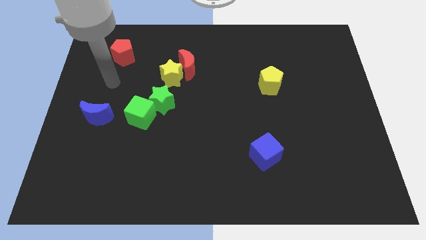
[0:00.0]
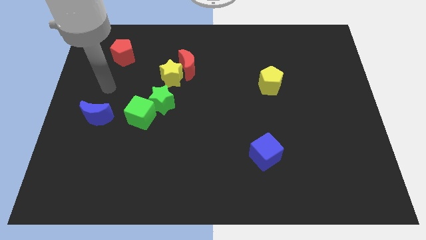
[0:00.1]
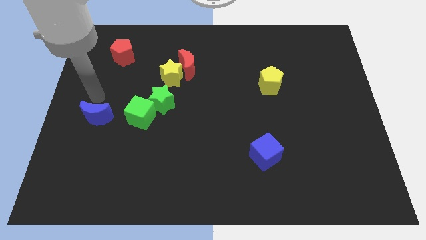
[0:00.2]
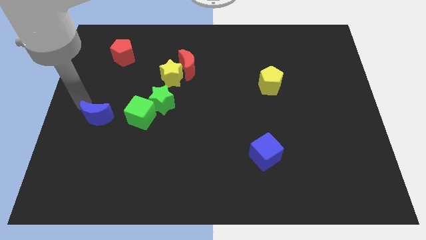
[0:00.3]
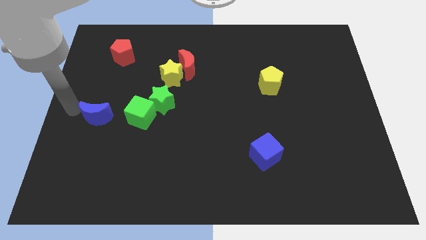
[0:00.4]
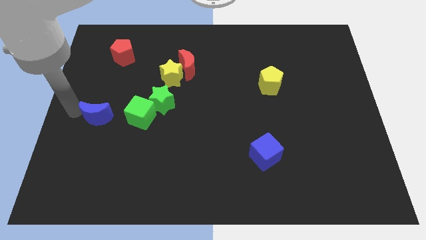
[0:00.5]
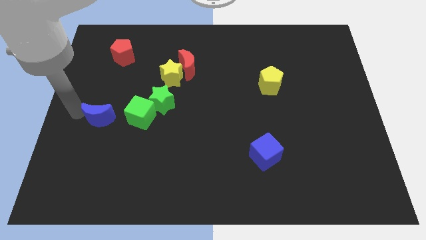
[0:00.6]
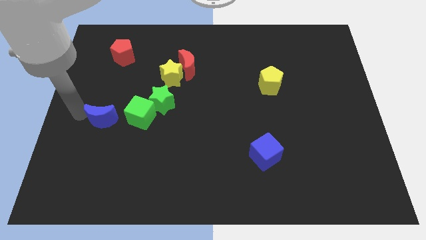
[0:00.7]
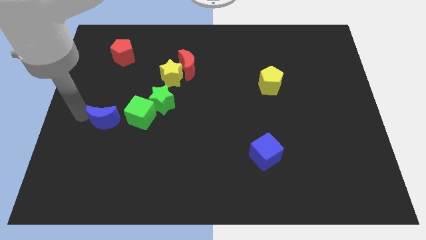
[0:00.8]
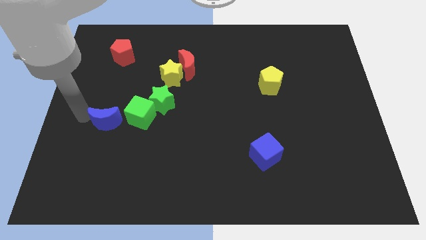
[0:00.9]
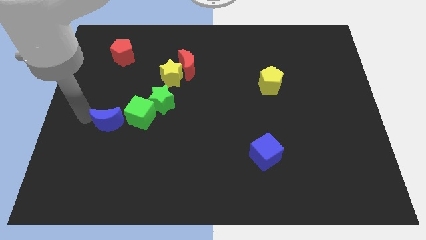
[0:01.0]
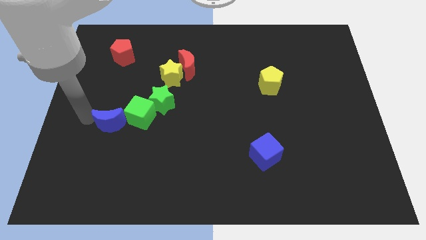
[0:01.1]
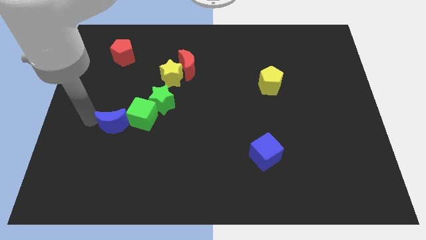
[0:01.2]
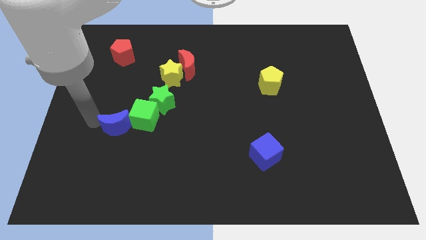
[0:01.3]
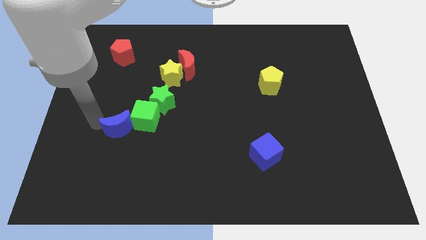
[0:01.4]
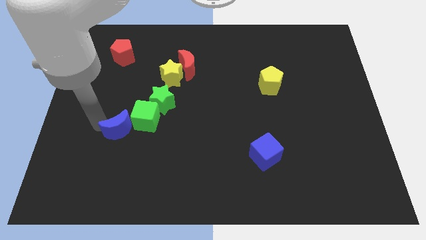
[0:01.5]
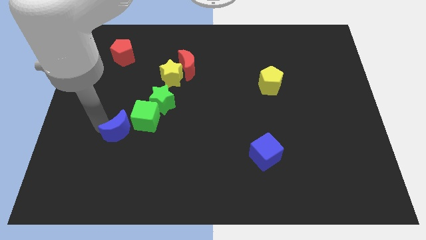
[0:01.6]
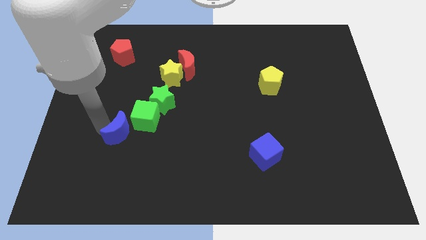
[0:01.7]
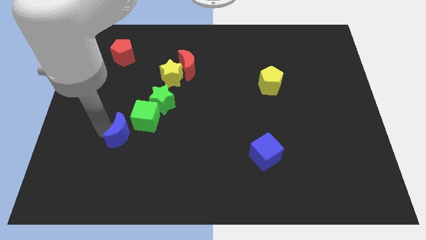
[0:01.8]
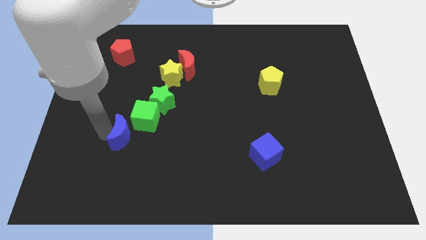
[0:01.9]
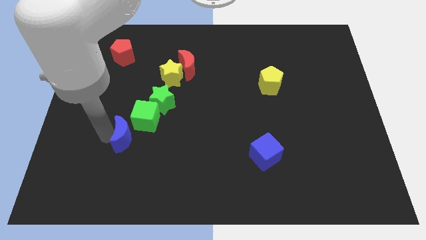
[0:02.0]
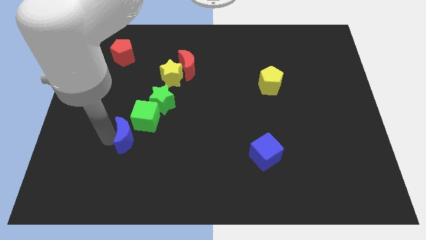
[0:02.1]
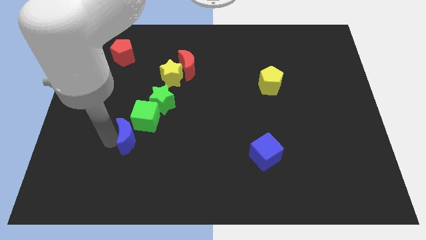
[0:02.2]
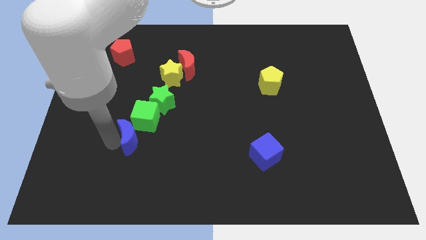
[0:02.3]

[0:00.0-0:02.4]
slide the blue moon a little bit to the right

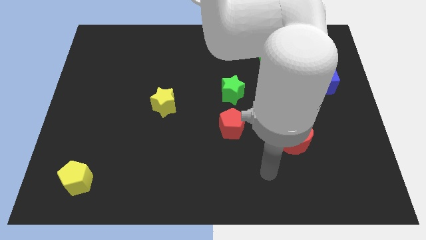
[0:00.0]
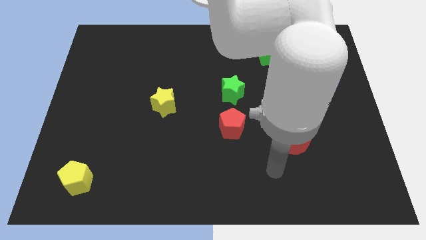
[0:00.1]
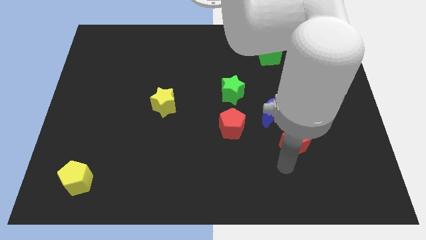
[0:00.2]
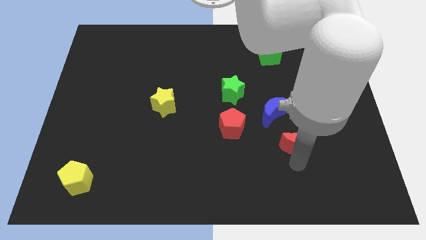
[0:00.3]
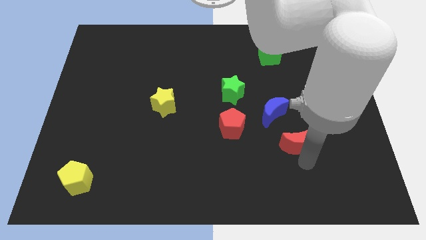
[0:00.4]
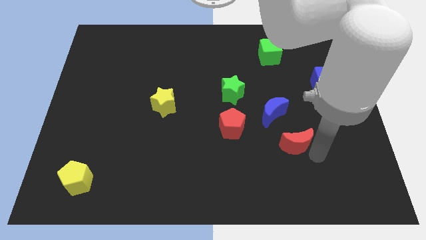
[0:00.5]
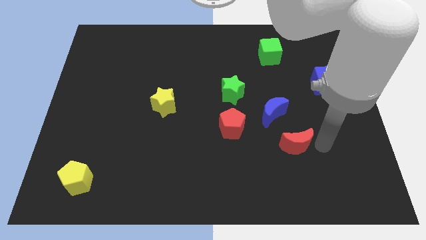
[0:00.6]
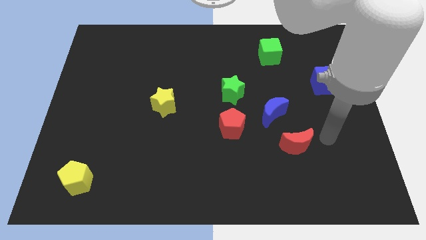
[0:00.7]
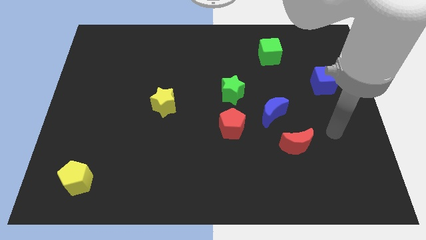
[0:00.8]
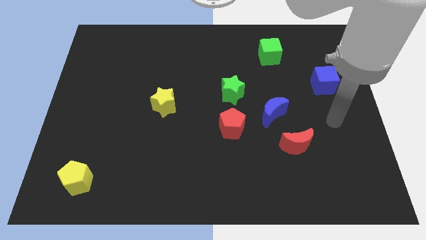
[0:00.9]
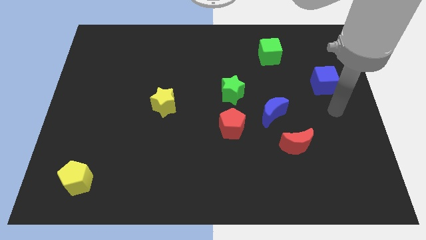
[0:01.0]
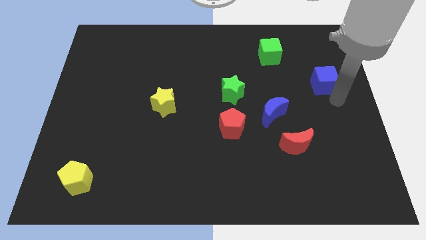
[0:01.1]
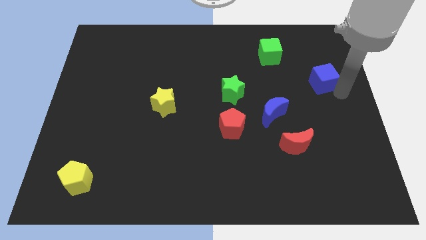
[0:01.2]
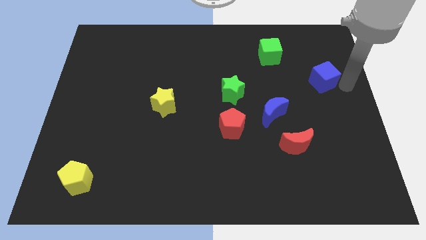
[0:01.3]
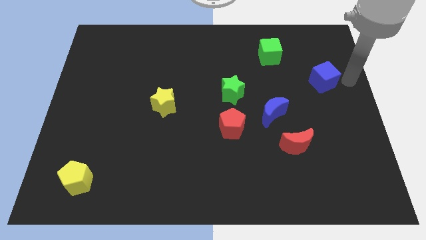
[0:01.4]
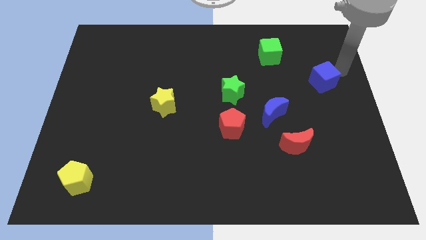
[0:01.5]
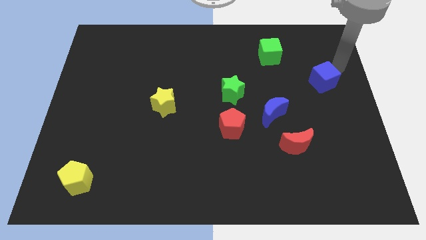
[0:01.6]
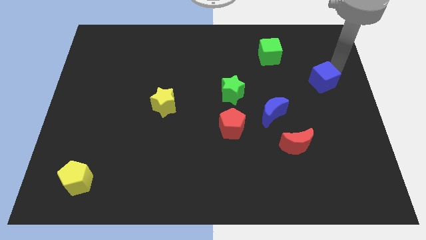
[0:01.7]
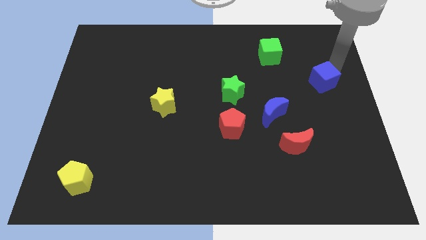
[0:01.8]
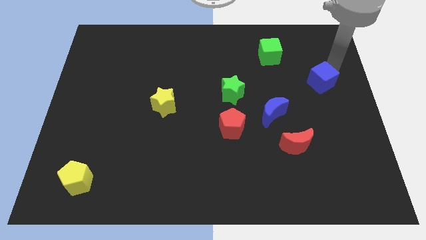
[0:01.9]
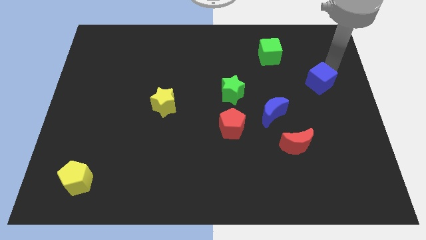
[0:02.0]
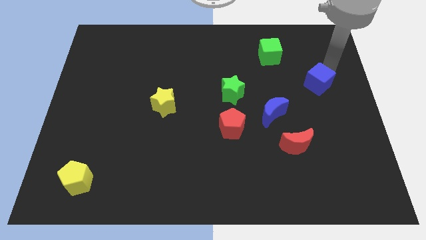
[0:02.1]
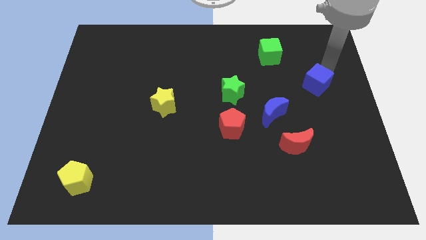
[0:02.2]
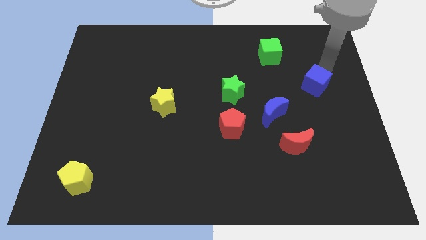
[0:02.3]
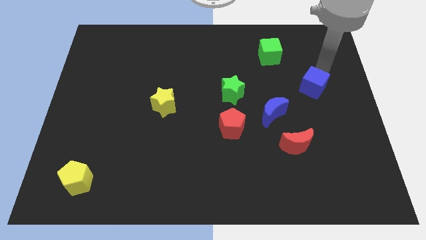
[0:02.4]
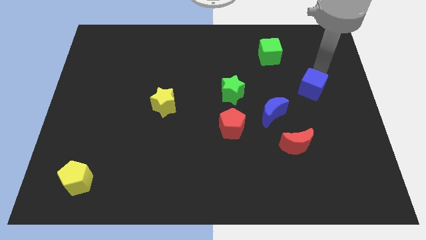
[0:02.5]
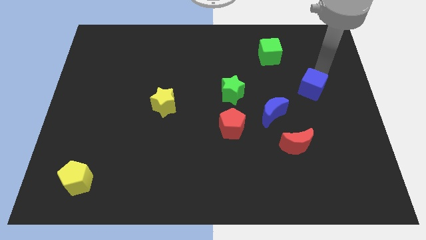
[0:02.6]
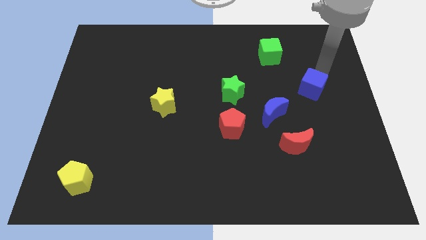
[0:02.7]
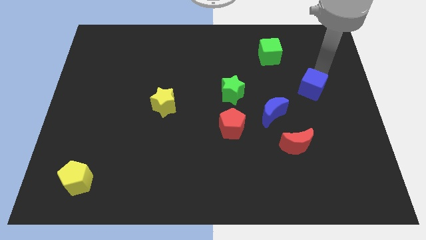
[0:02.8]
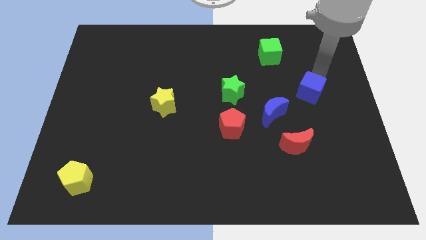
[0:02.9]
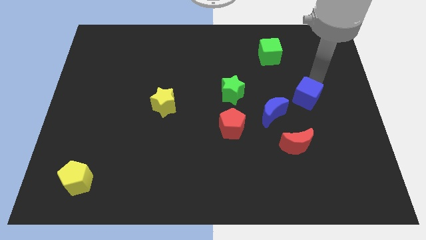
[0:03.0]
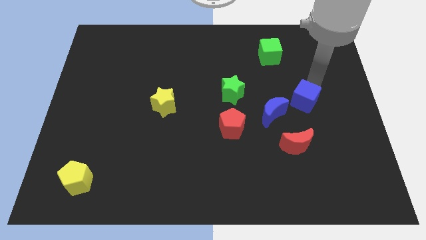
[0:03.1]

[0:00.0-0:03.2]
slightly slide the blue cube diagonally down and to the left

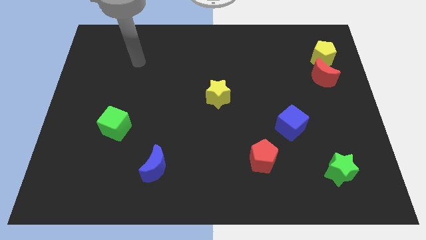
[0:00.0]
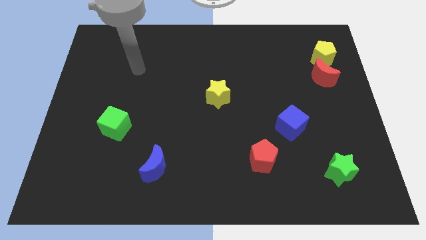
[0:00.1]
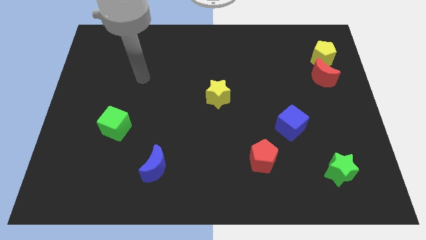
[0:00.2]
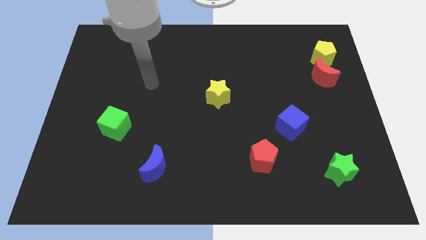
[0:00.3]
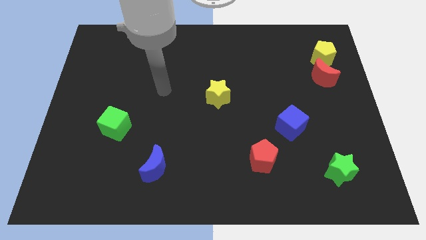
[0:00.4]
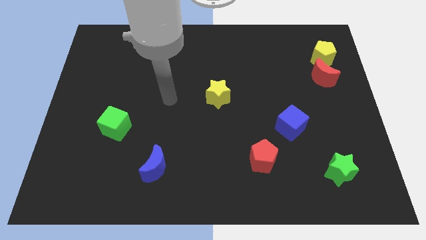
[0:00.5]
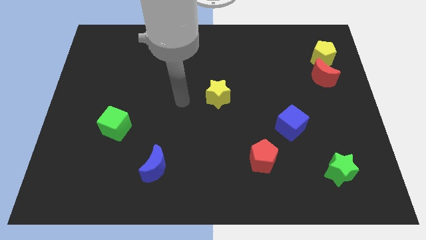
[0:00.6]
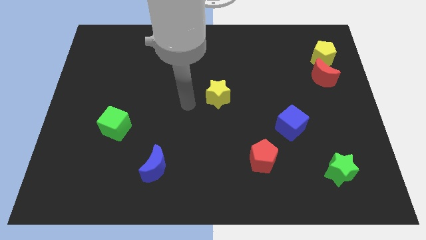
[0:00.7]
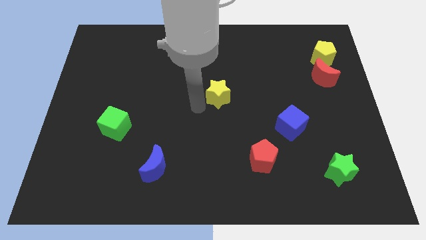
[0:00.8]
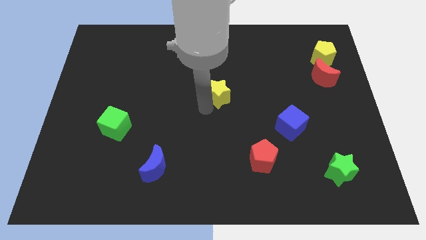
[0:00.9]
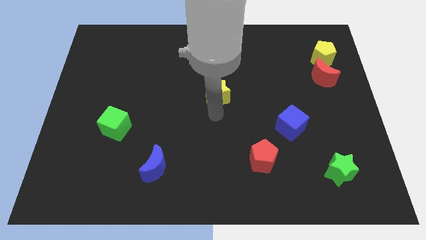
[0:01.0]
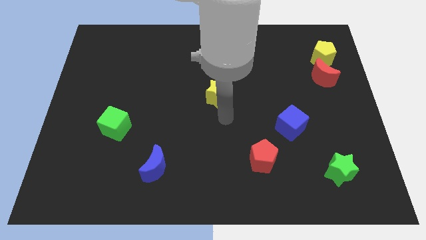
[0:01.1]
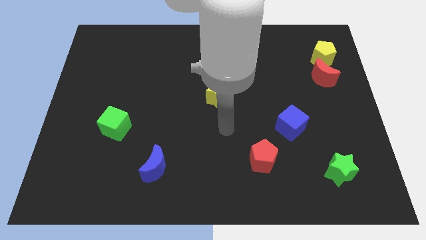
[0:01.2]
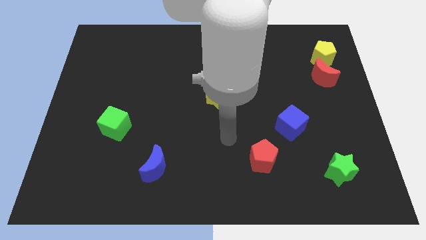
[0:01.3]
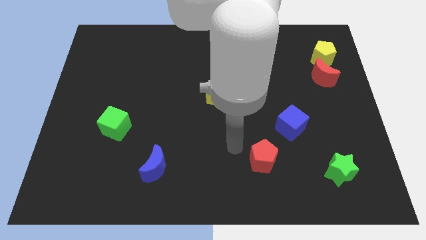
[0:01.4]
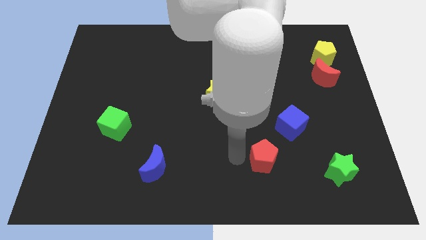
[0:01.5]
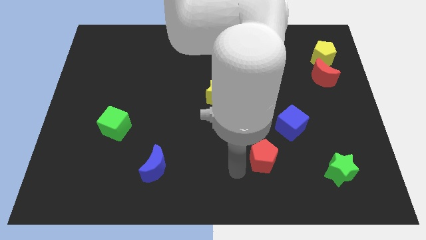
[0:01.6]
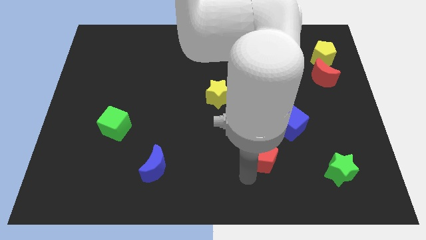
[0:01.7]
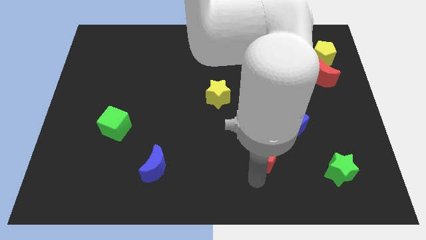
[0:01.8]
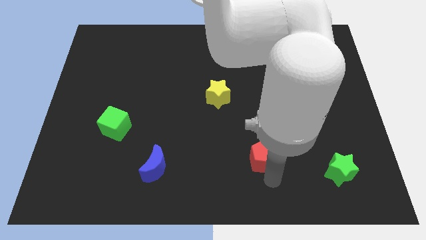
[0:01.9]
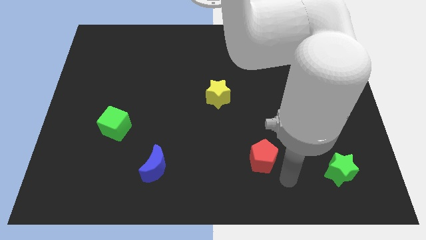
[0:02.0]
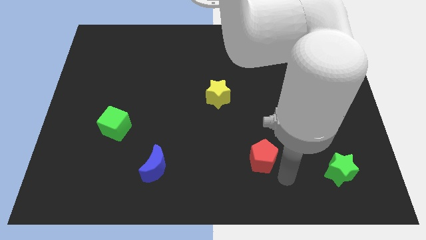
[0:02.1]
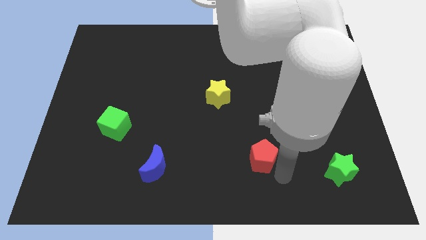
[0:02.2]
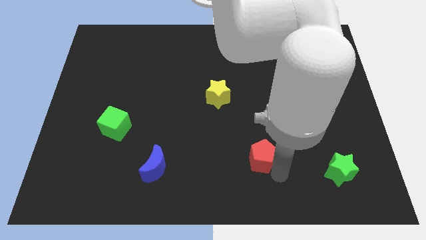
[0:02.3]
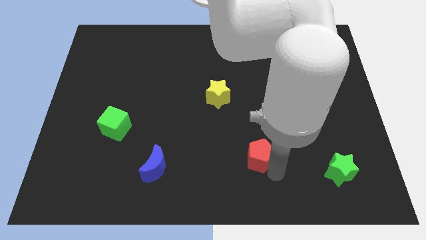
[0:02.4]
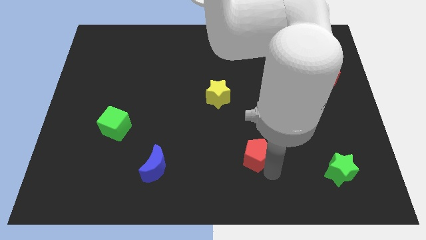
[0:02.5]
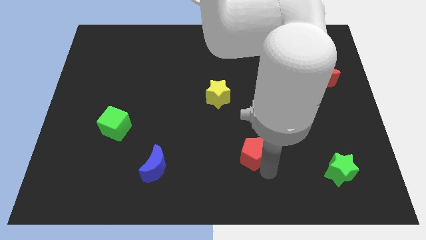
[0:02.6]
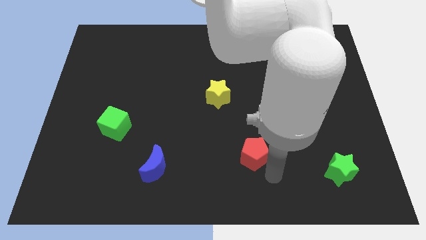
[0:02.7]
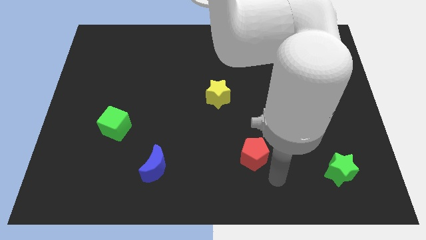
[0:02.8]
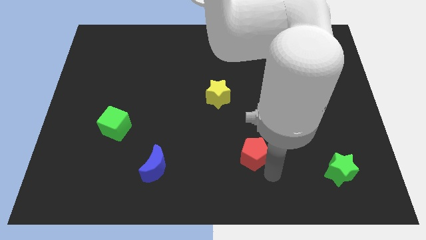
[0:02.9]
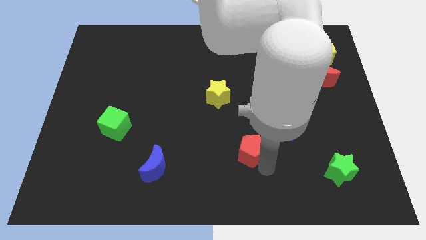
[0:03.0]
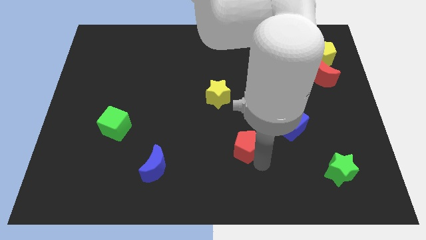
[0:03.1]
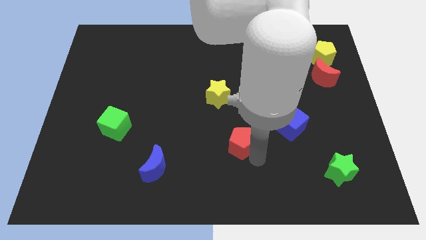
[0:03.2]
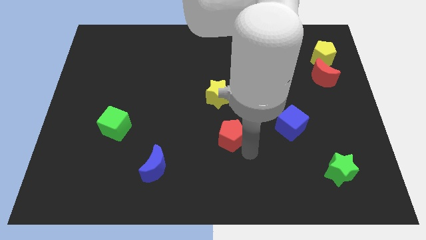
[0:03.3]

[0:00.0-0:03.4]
slightly move the red pentagon up and then left
